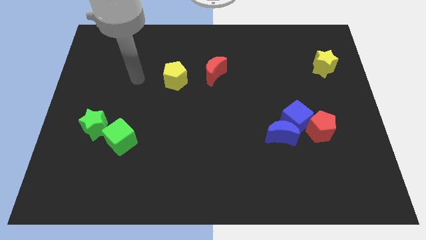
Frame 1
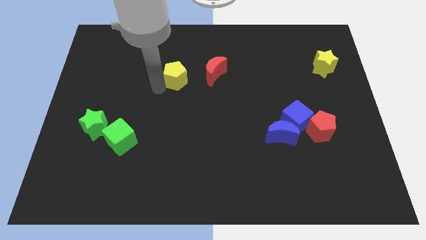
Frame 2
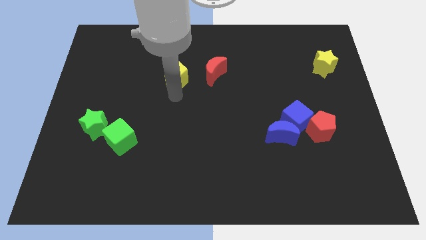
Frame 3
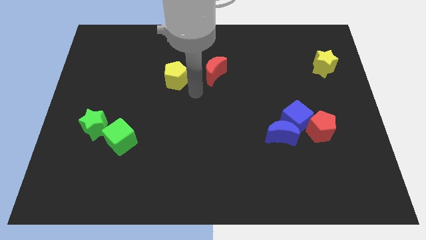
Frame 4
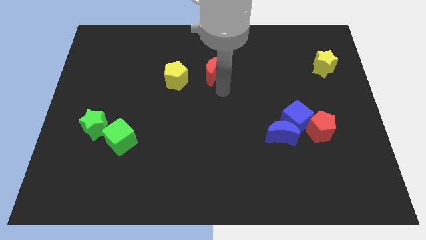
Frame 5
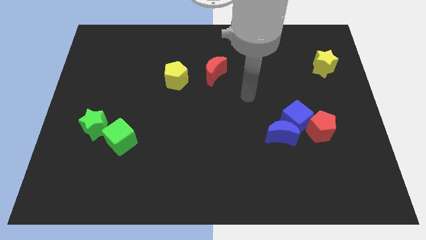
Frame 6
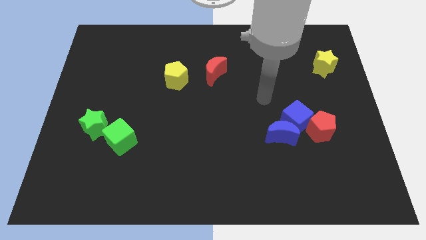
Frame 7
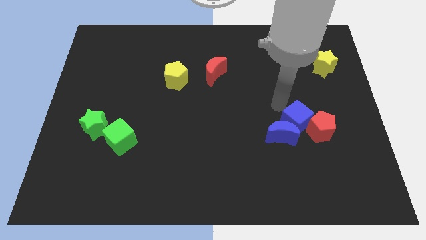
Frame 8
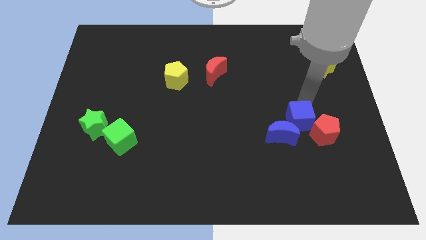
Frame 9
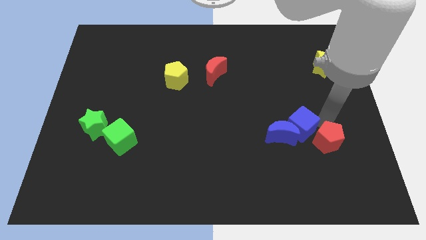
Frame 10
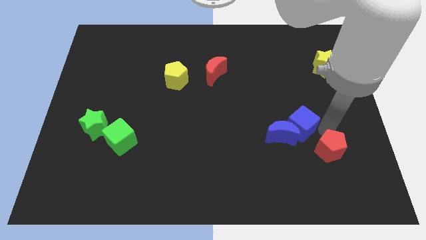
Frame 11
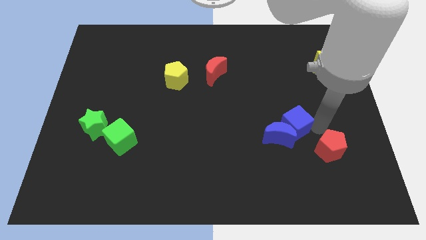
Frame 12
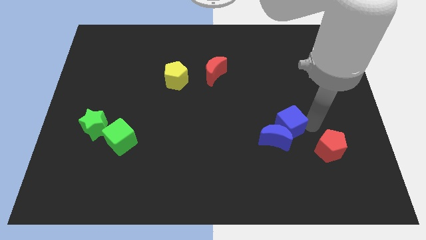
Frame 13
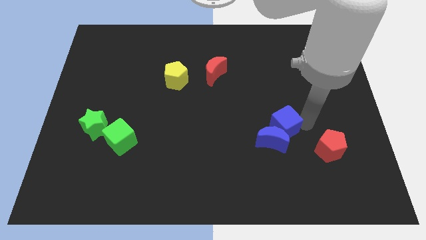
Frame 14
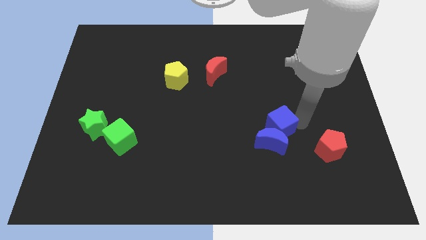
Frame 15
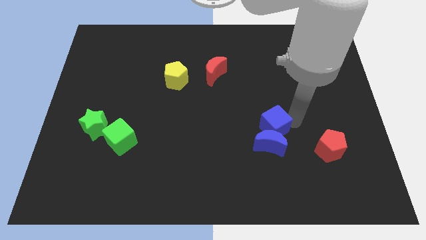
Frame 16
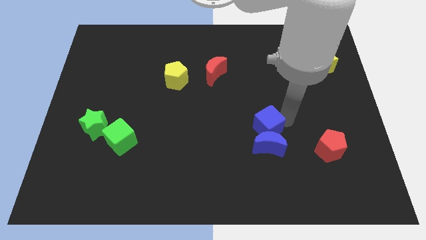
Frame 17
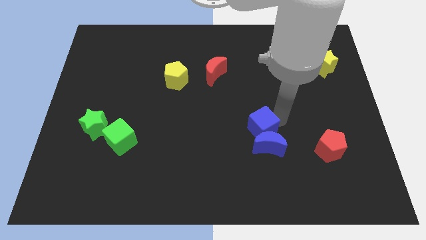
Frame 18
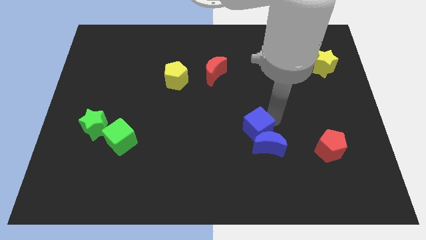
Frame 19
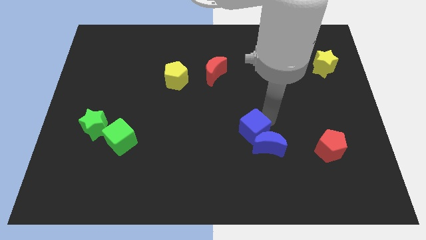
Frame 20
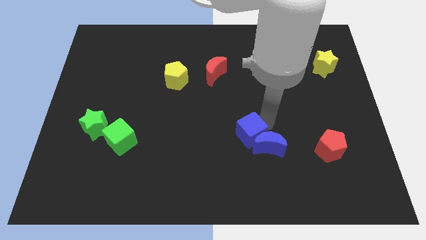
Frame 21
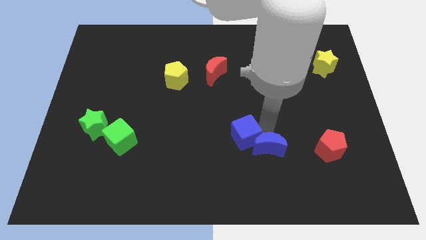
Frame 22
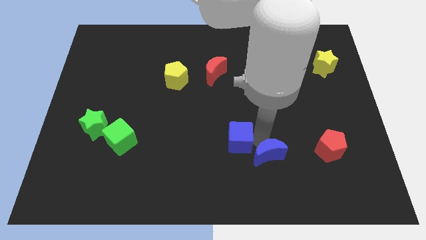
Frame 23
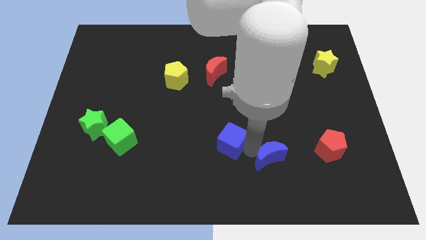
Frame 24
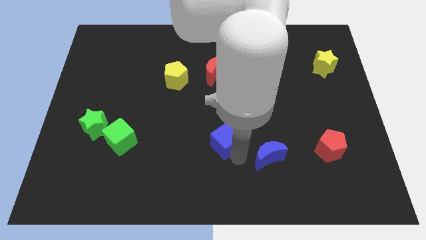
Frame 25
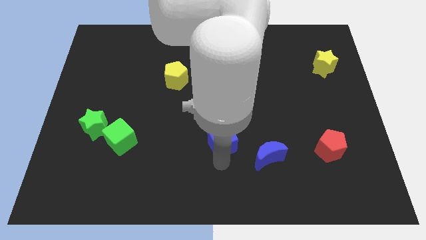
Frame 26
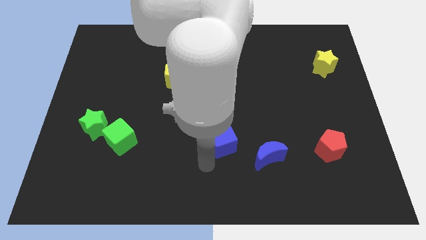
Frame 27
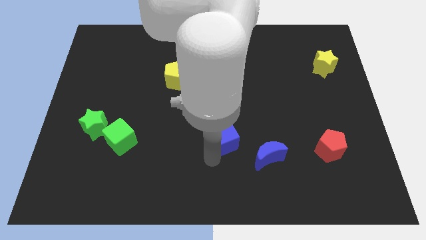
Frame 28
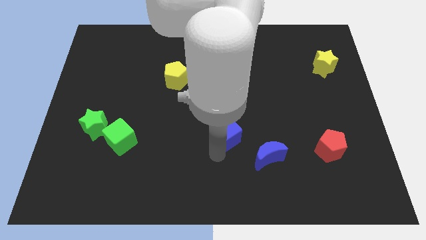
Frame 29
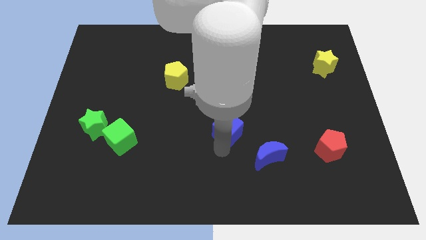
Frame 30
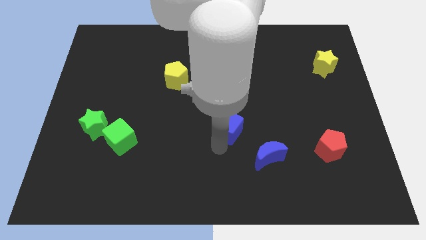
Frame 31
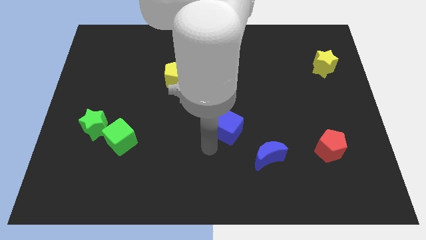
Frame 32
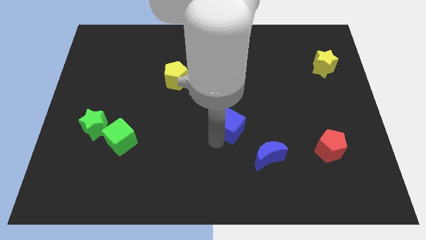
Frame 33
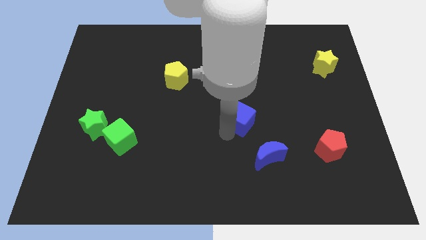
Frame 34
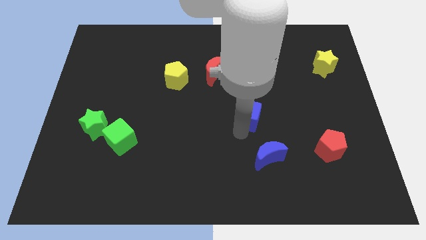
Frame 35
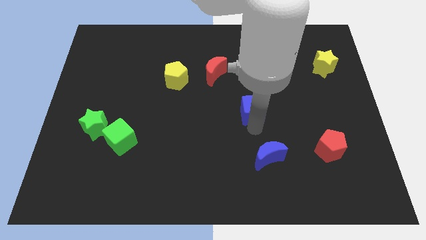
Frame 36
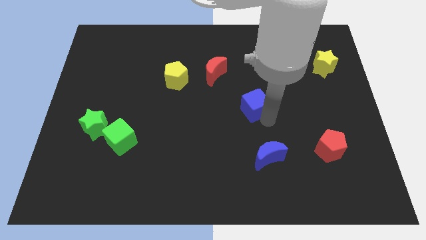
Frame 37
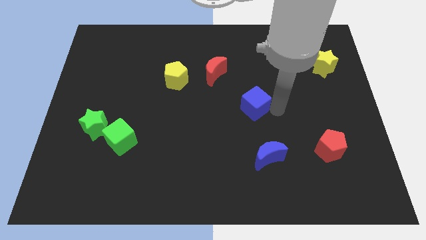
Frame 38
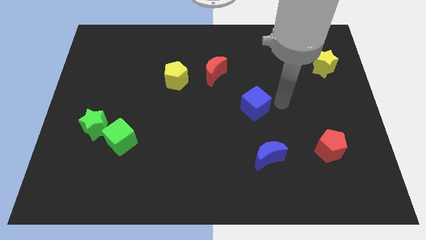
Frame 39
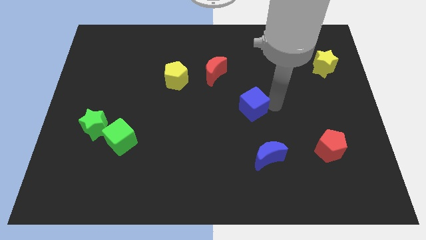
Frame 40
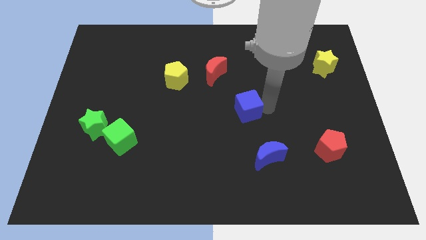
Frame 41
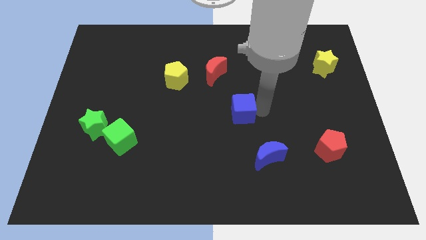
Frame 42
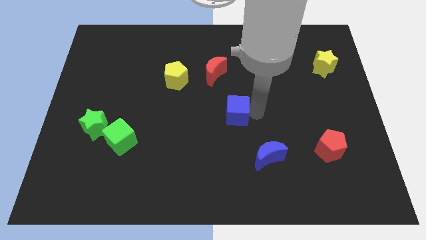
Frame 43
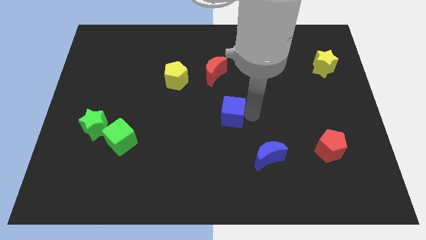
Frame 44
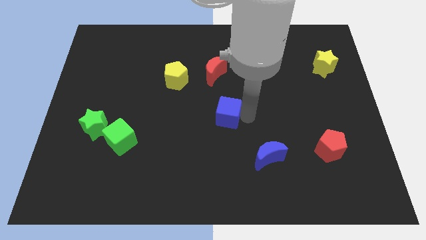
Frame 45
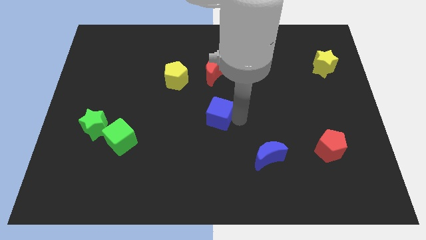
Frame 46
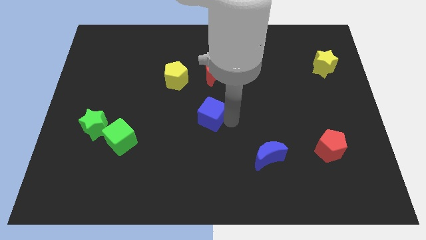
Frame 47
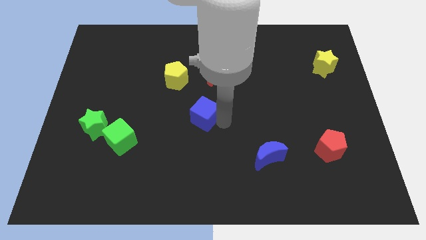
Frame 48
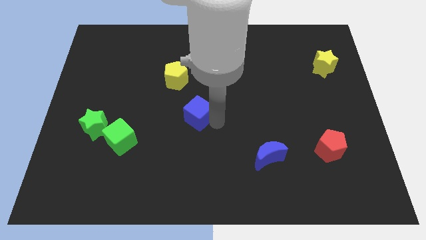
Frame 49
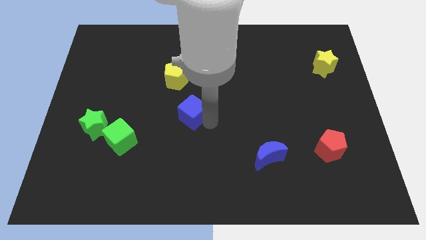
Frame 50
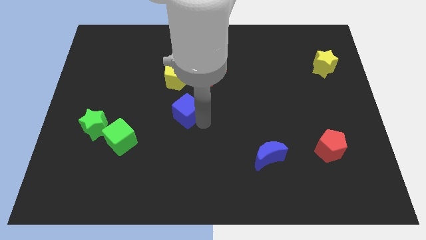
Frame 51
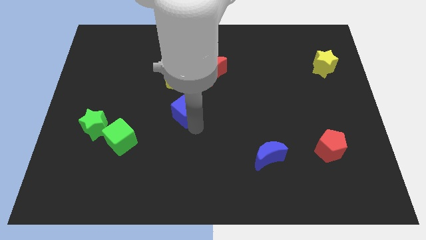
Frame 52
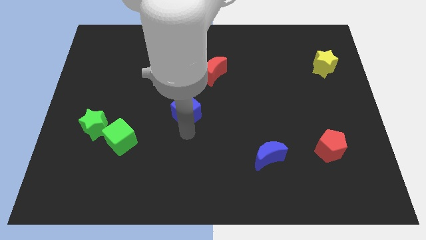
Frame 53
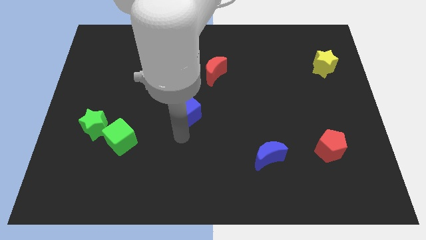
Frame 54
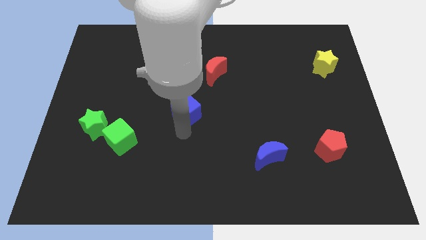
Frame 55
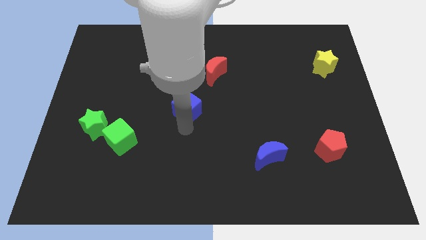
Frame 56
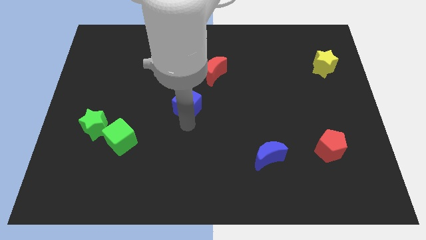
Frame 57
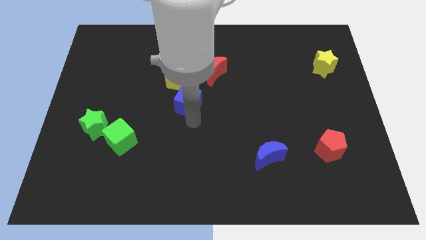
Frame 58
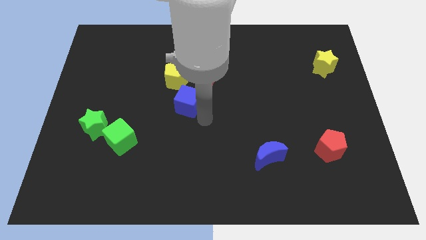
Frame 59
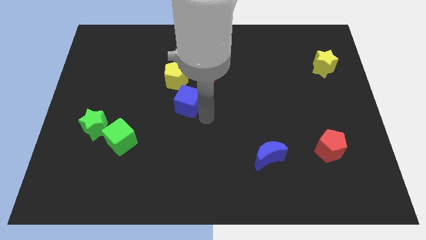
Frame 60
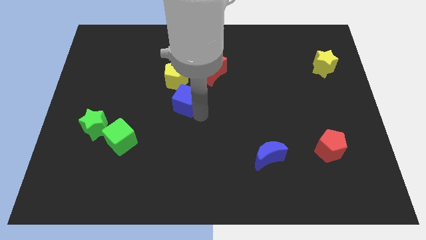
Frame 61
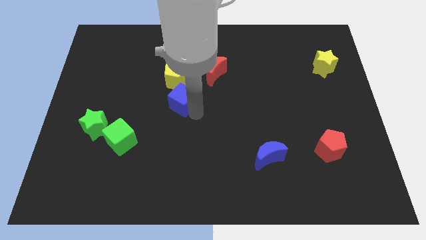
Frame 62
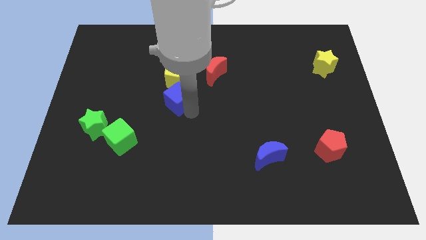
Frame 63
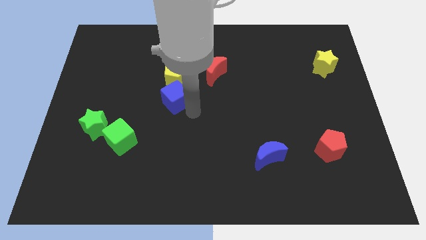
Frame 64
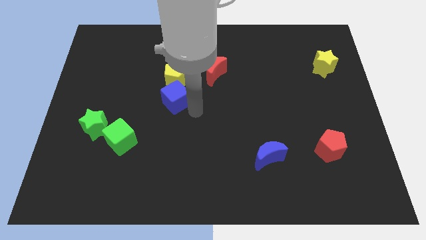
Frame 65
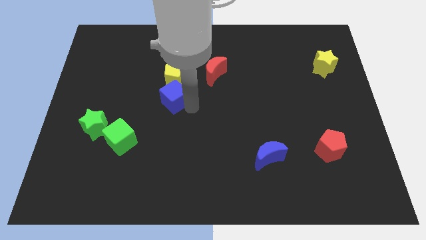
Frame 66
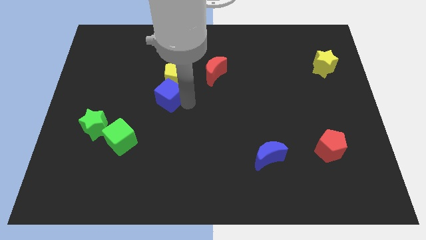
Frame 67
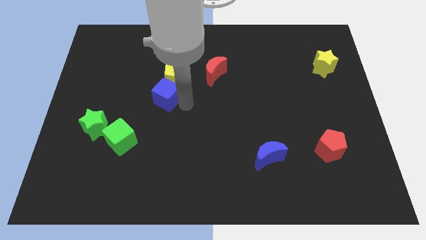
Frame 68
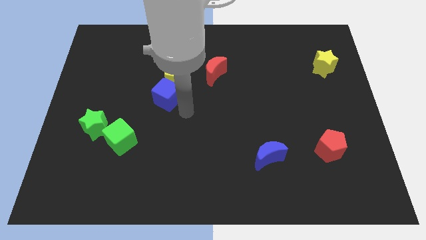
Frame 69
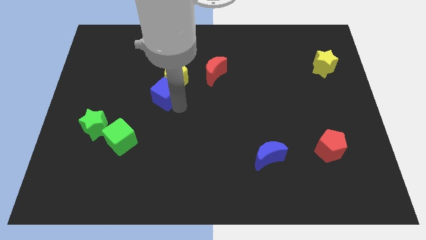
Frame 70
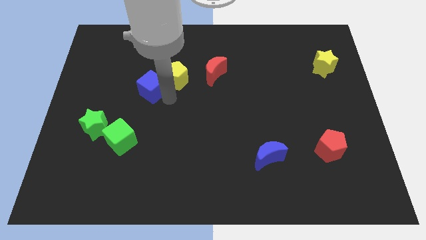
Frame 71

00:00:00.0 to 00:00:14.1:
push the blue cube to the left side of the yellow pentagon
